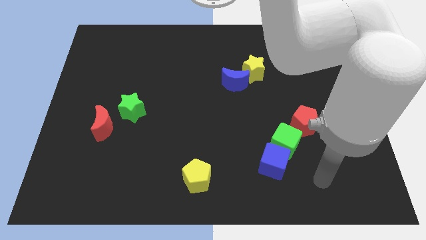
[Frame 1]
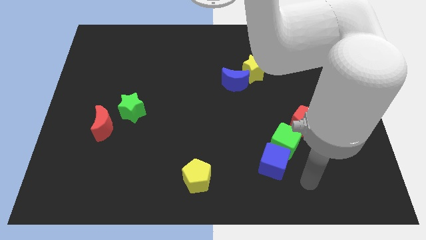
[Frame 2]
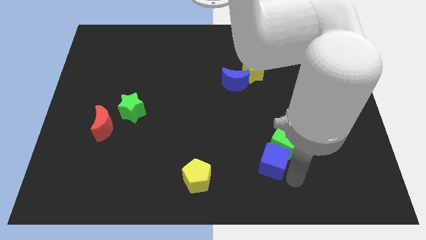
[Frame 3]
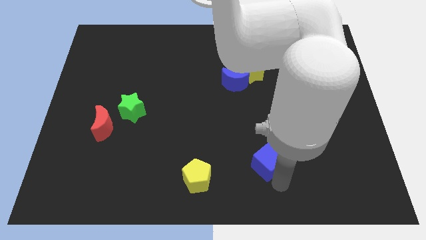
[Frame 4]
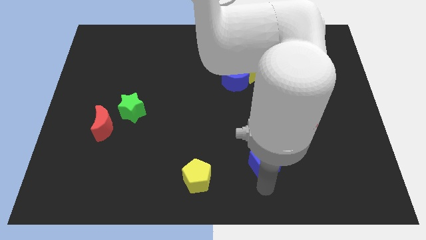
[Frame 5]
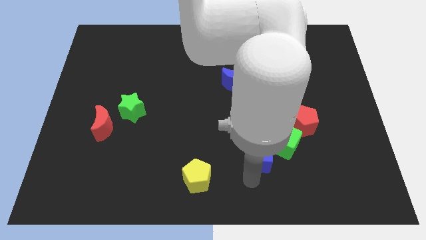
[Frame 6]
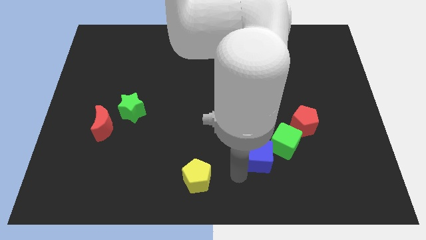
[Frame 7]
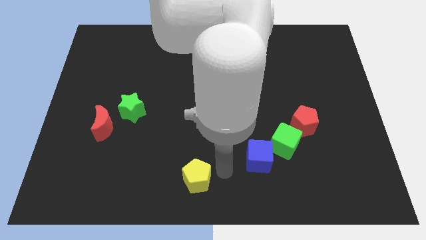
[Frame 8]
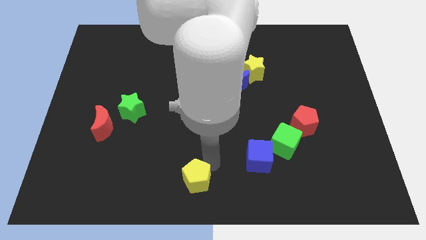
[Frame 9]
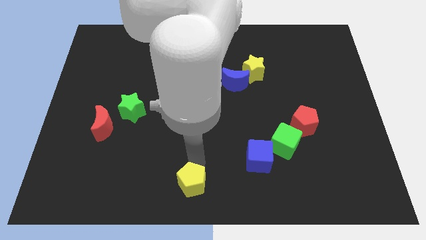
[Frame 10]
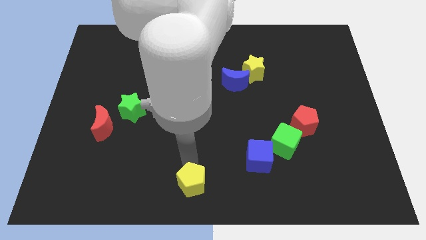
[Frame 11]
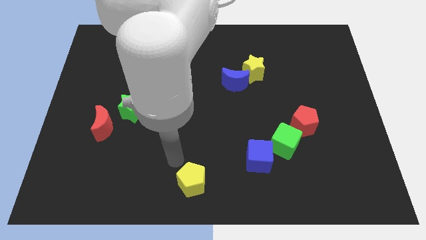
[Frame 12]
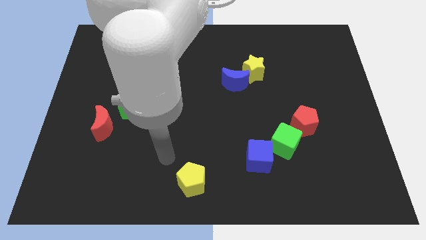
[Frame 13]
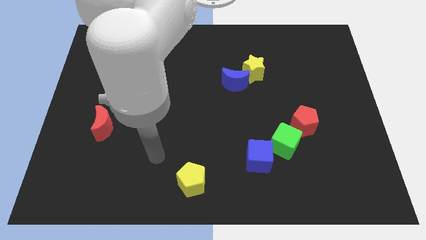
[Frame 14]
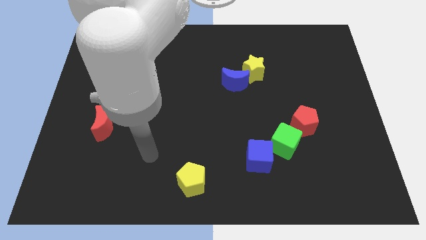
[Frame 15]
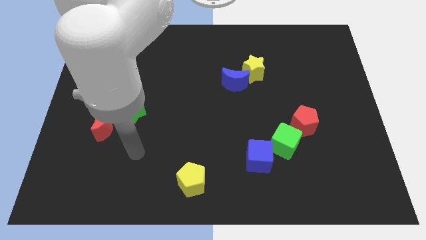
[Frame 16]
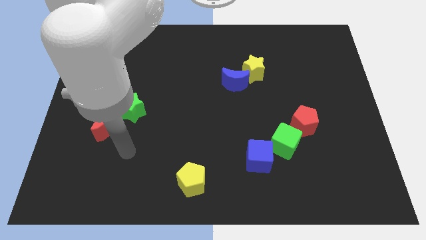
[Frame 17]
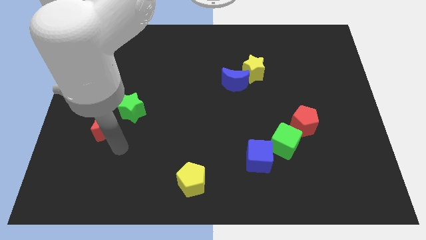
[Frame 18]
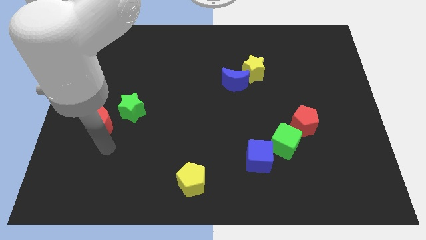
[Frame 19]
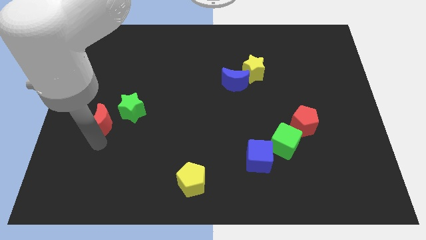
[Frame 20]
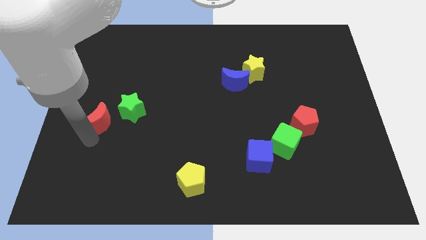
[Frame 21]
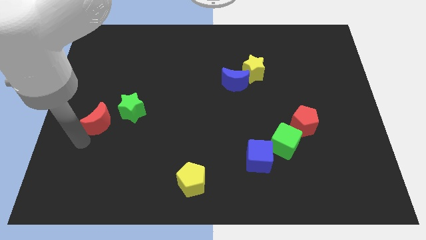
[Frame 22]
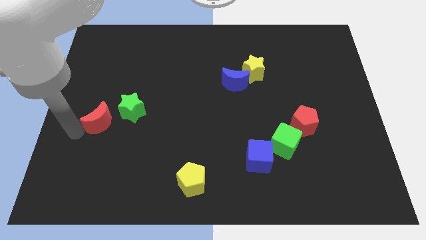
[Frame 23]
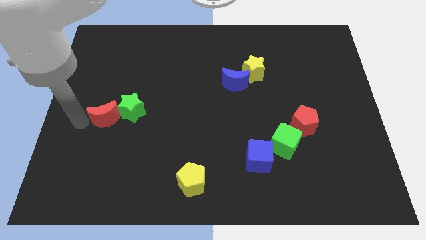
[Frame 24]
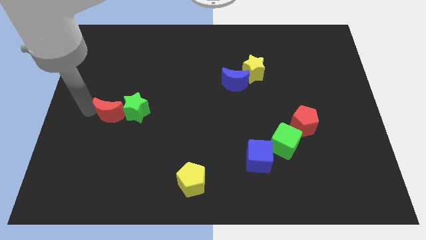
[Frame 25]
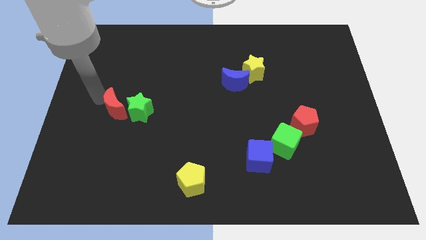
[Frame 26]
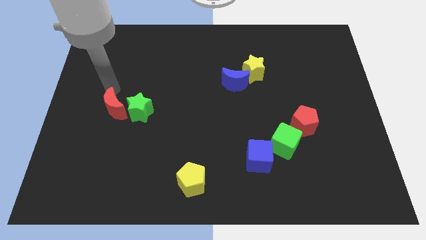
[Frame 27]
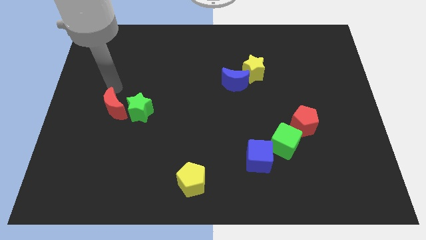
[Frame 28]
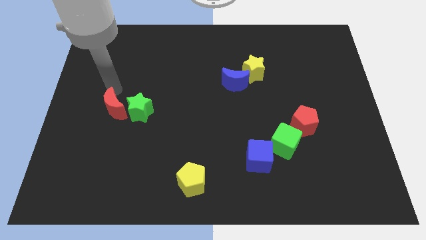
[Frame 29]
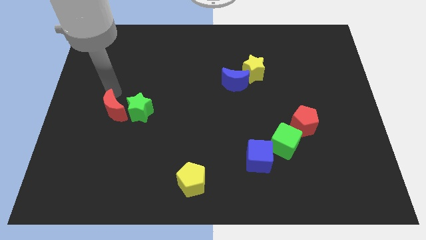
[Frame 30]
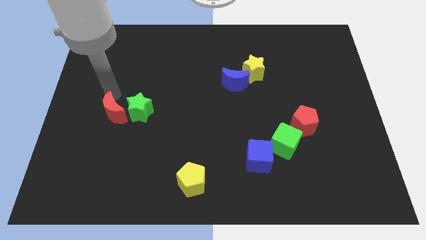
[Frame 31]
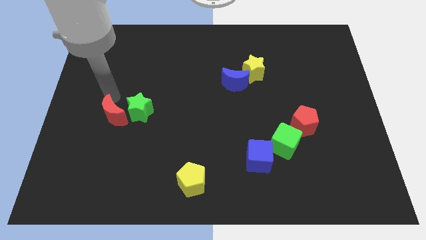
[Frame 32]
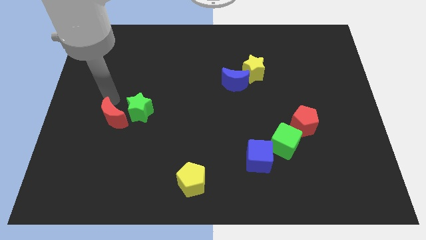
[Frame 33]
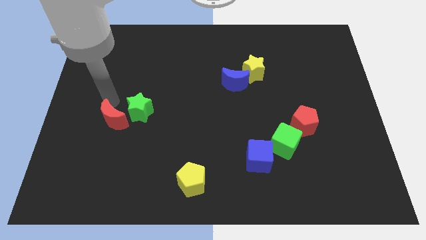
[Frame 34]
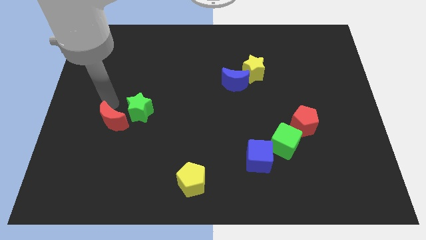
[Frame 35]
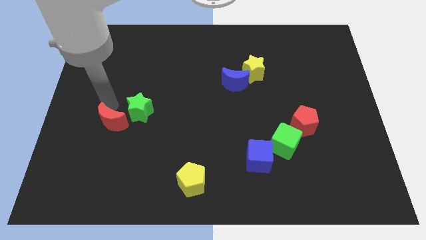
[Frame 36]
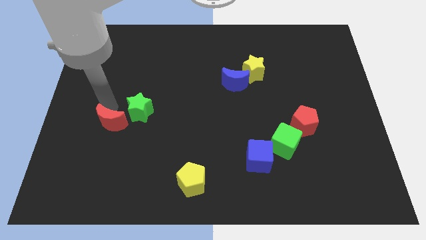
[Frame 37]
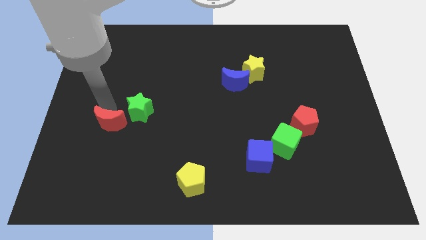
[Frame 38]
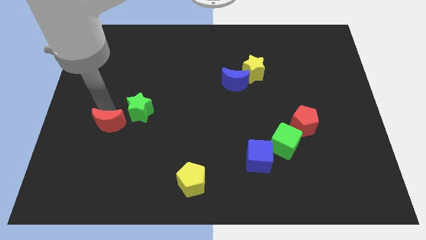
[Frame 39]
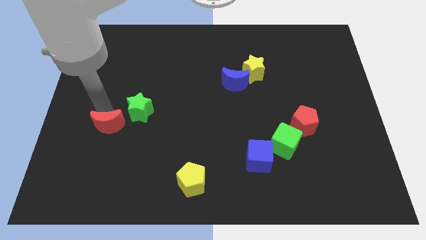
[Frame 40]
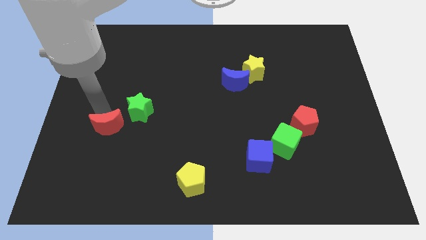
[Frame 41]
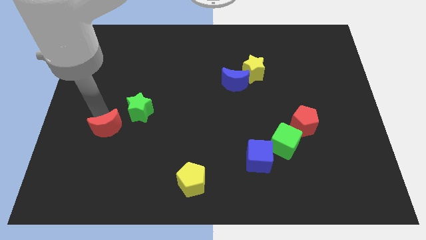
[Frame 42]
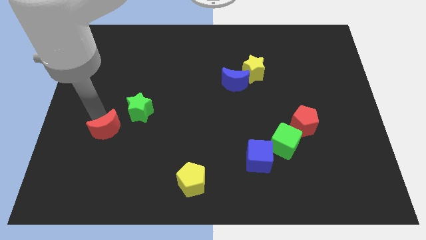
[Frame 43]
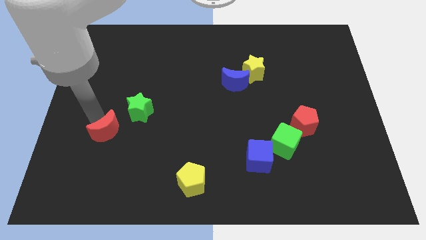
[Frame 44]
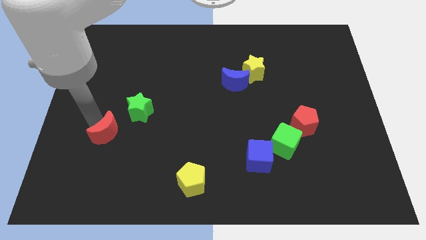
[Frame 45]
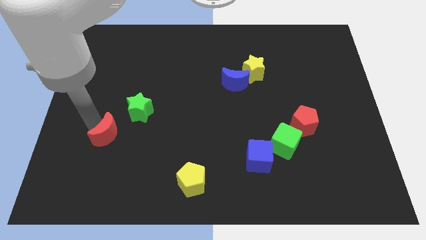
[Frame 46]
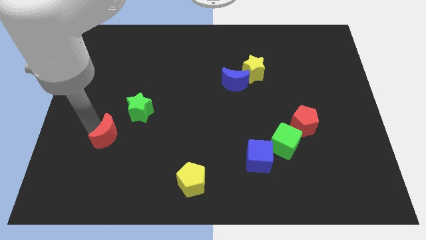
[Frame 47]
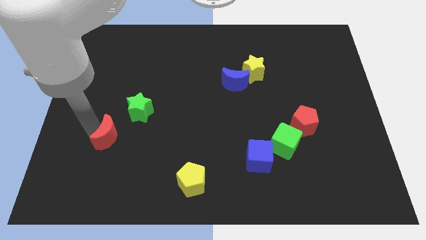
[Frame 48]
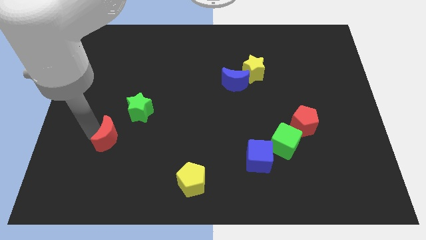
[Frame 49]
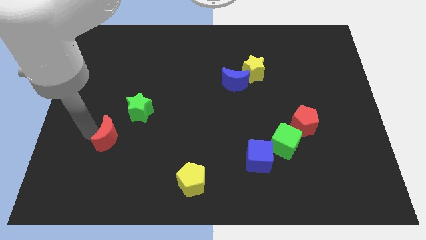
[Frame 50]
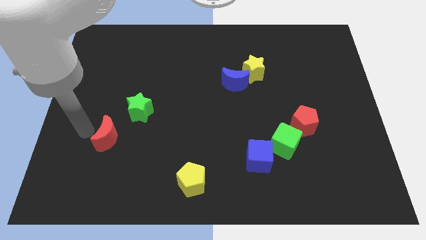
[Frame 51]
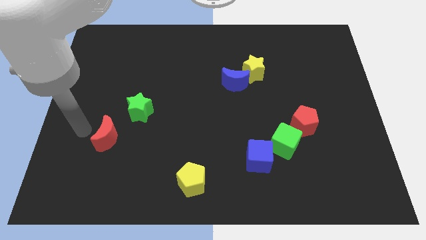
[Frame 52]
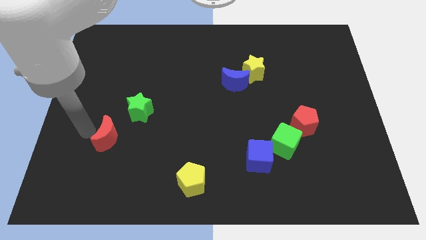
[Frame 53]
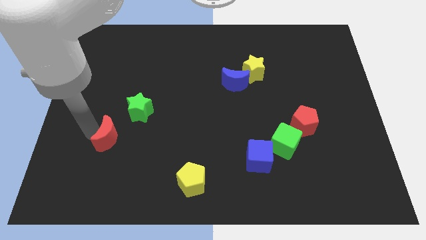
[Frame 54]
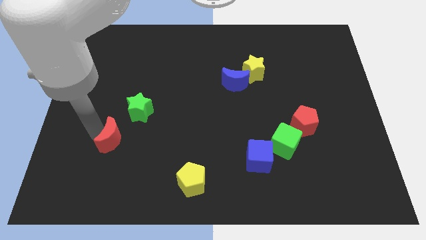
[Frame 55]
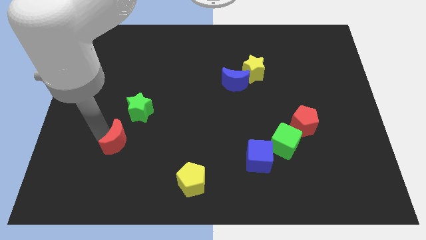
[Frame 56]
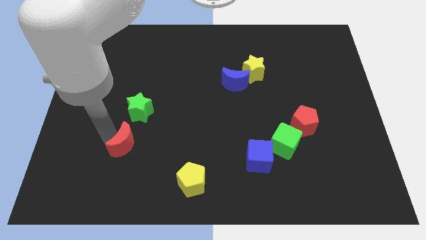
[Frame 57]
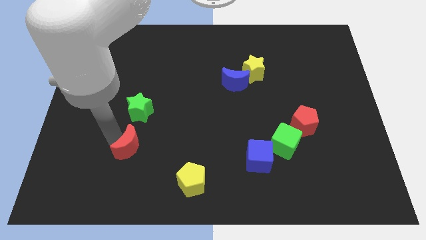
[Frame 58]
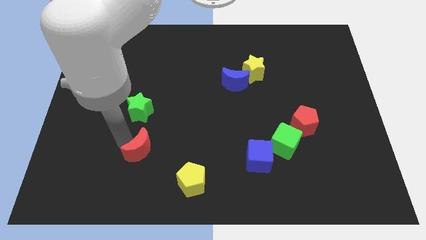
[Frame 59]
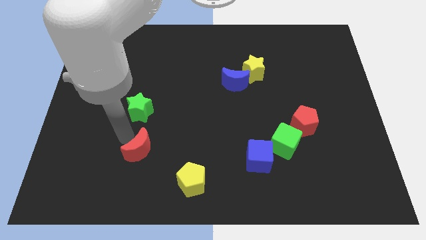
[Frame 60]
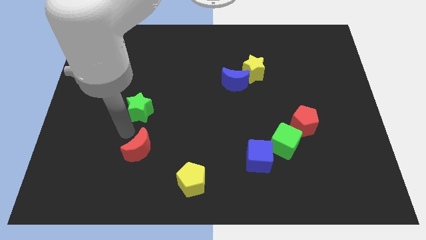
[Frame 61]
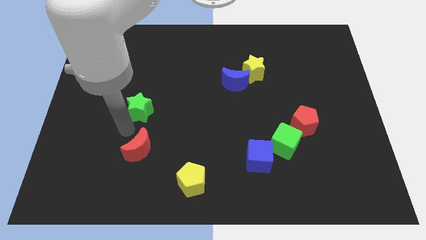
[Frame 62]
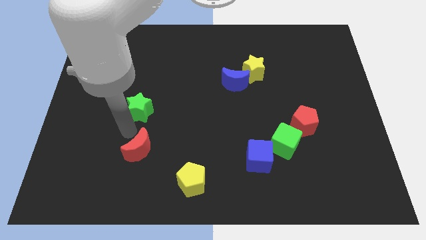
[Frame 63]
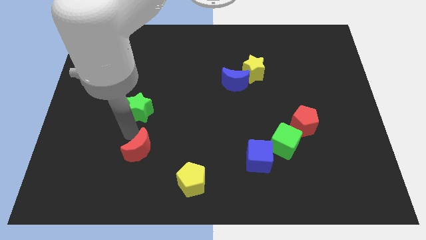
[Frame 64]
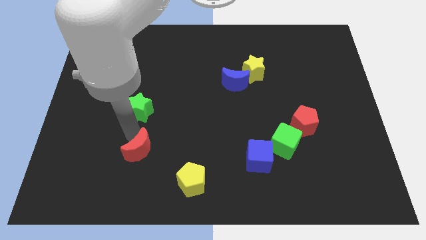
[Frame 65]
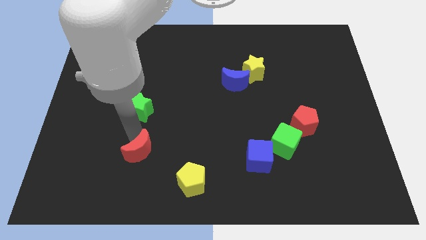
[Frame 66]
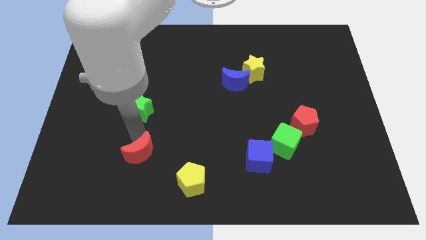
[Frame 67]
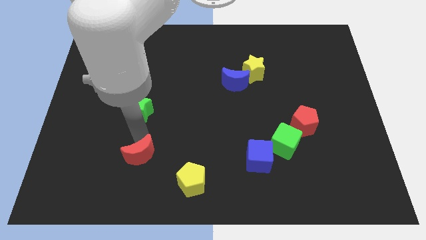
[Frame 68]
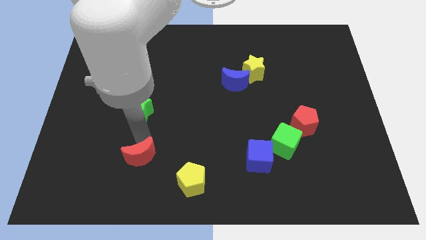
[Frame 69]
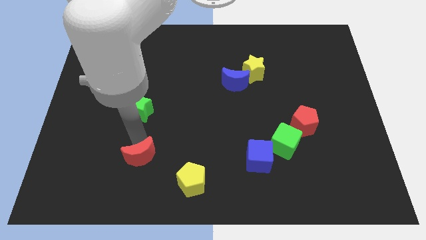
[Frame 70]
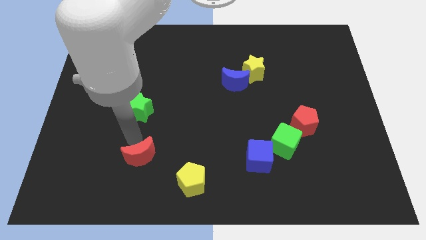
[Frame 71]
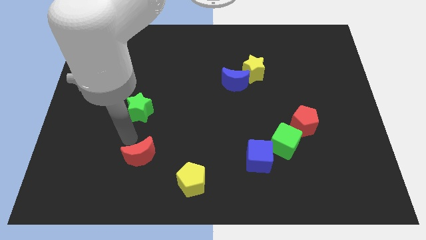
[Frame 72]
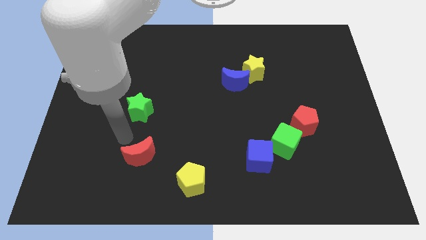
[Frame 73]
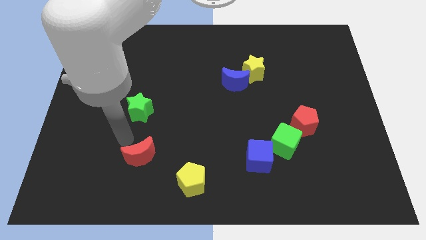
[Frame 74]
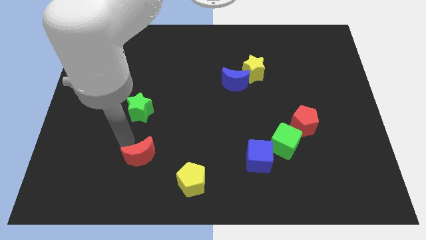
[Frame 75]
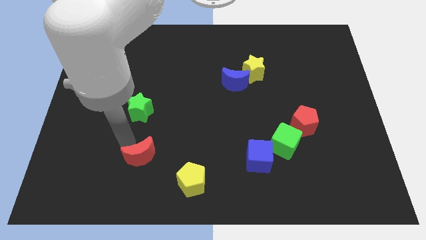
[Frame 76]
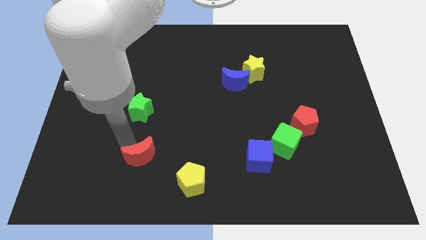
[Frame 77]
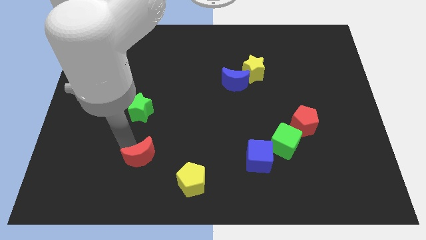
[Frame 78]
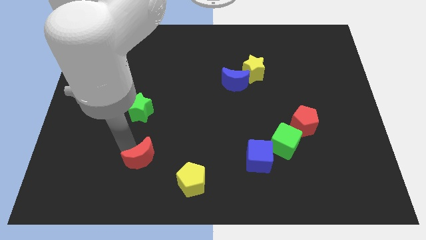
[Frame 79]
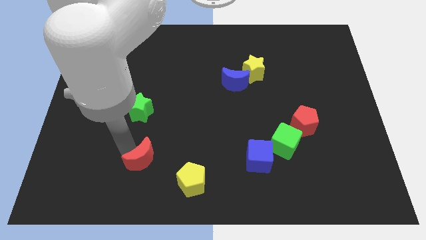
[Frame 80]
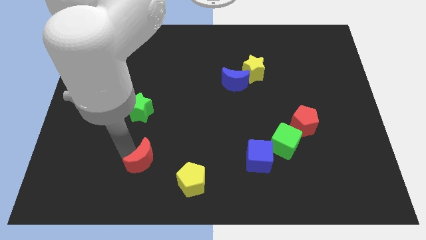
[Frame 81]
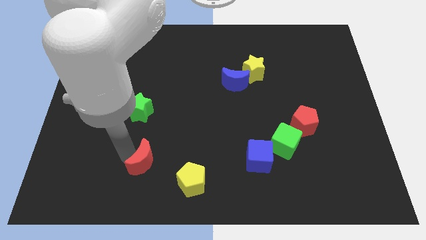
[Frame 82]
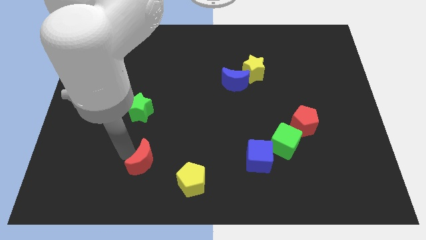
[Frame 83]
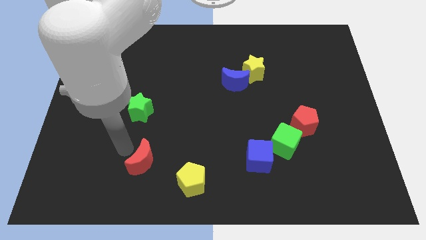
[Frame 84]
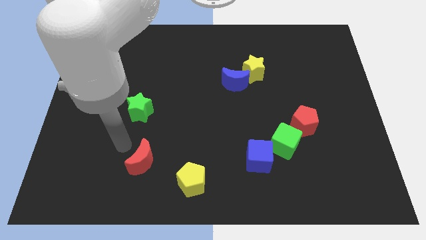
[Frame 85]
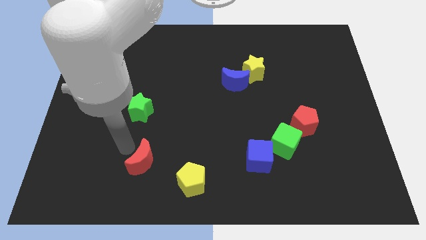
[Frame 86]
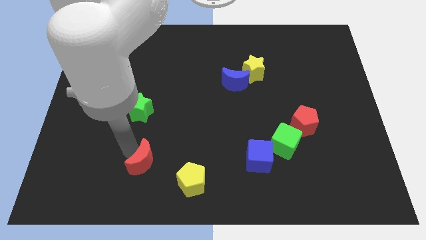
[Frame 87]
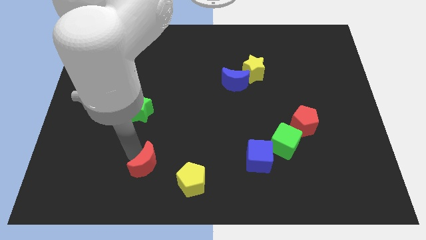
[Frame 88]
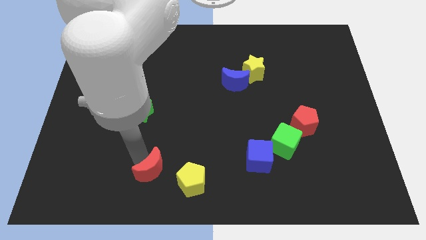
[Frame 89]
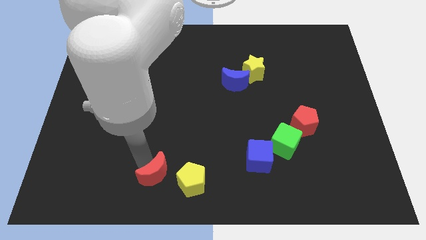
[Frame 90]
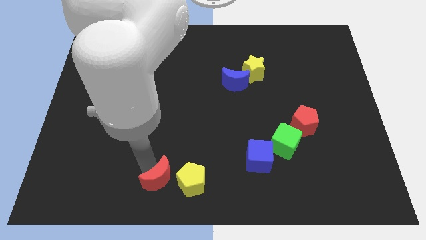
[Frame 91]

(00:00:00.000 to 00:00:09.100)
put the red moon to the bottom
